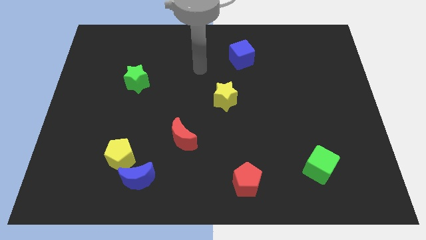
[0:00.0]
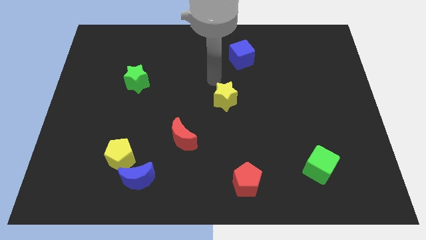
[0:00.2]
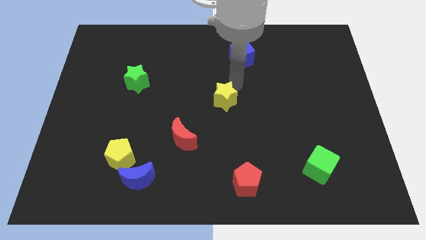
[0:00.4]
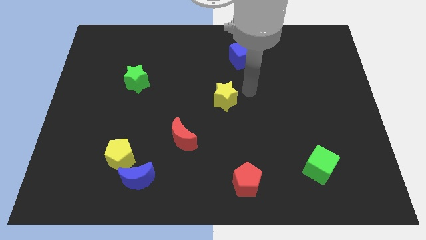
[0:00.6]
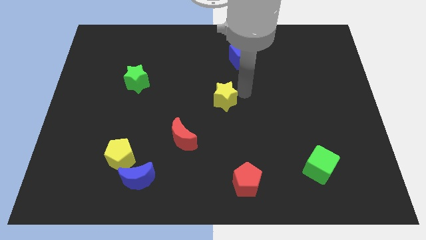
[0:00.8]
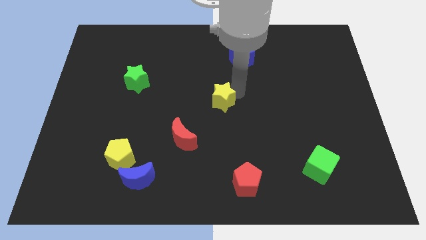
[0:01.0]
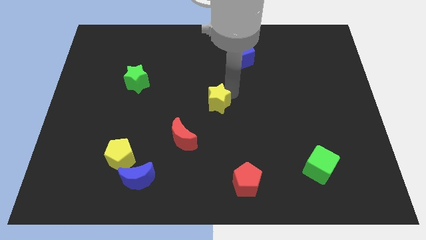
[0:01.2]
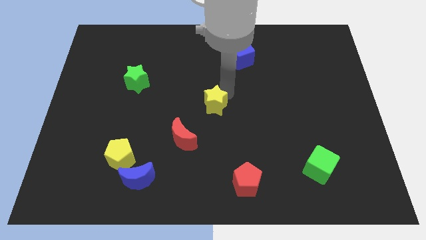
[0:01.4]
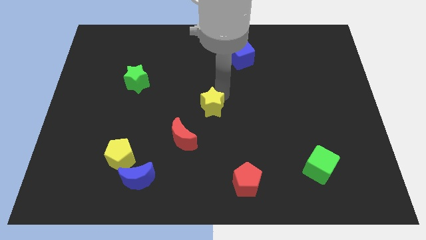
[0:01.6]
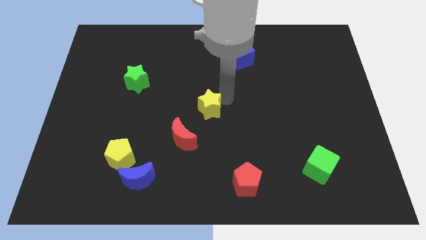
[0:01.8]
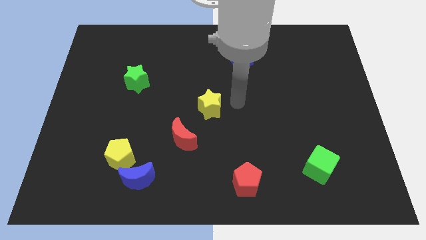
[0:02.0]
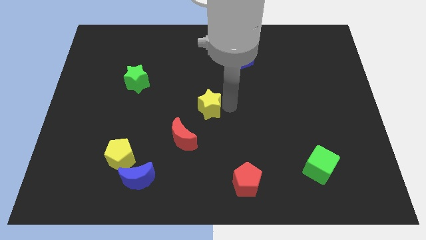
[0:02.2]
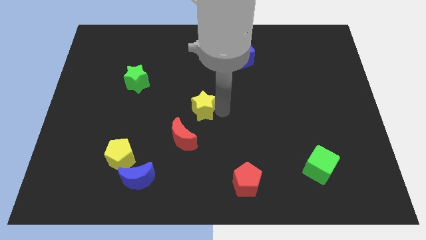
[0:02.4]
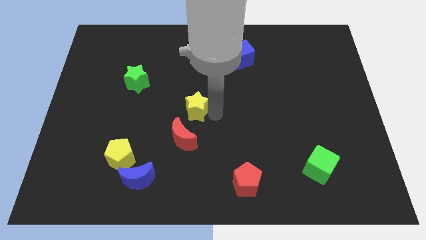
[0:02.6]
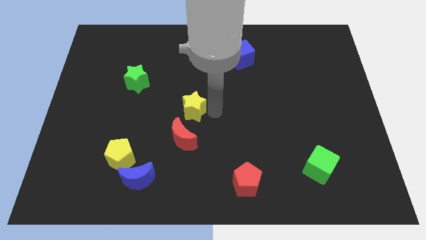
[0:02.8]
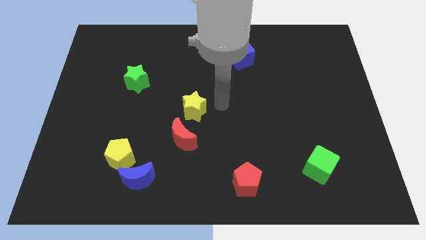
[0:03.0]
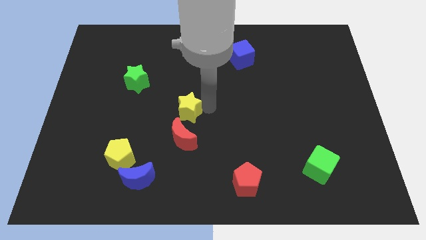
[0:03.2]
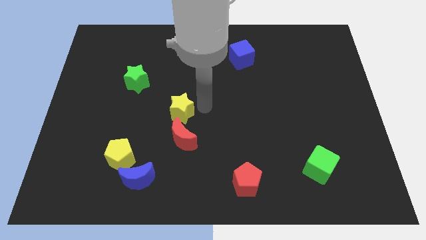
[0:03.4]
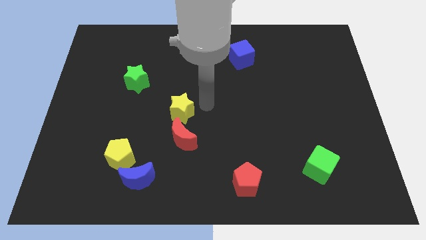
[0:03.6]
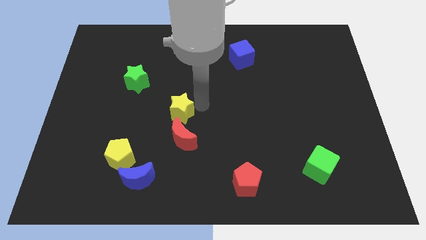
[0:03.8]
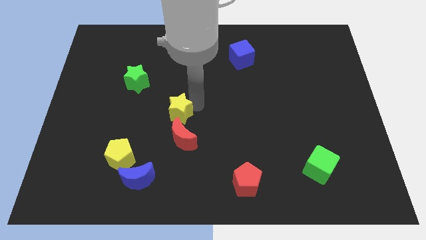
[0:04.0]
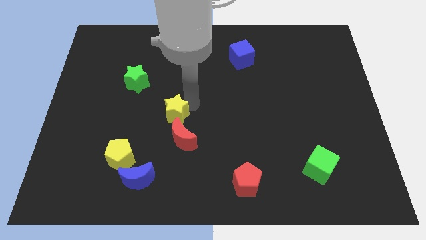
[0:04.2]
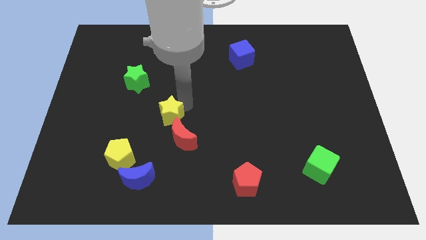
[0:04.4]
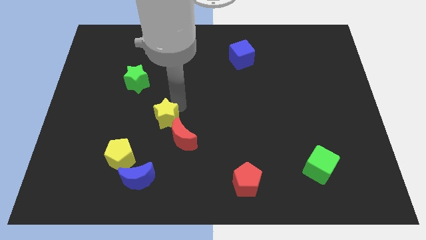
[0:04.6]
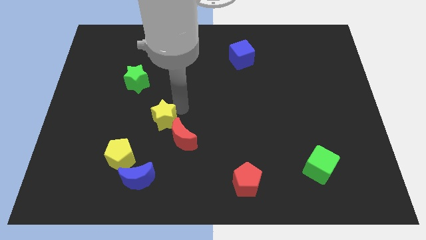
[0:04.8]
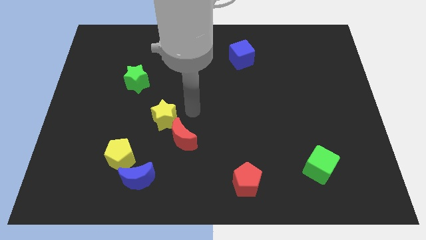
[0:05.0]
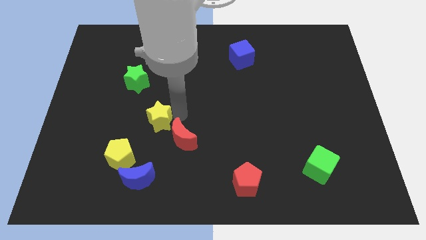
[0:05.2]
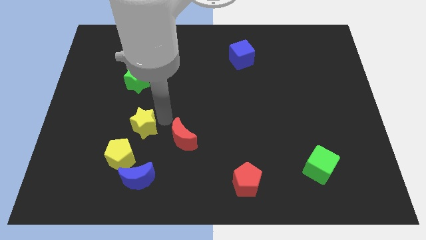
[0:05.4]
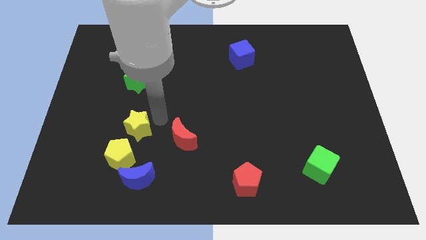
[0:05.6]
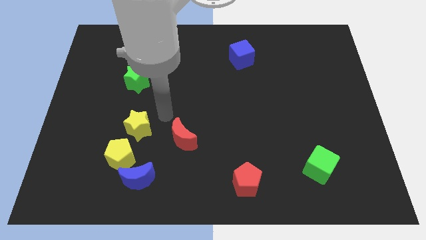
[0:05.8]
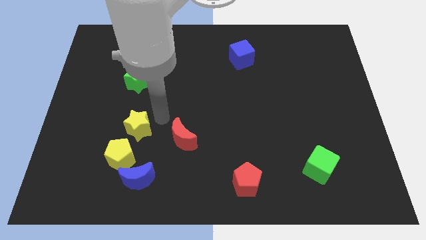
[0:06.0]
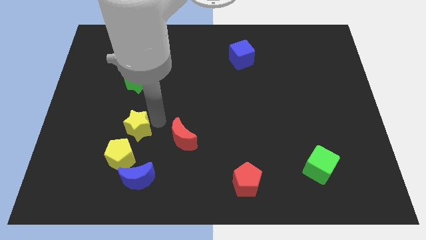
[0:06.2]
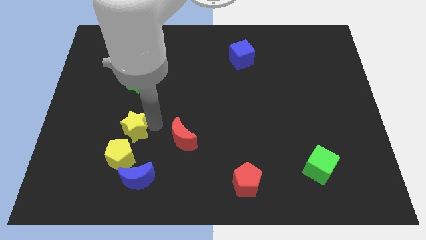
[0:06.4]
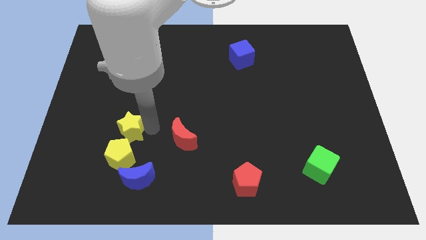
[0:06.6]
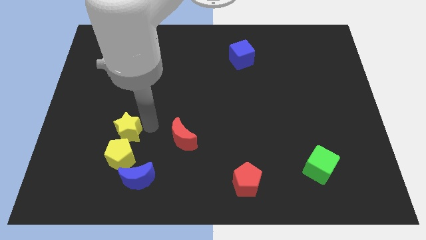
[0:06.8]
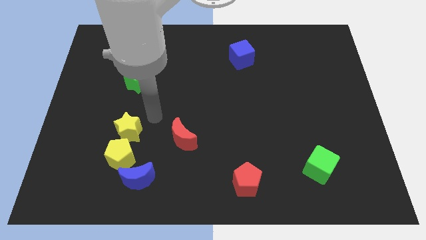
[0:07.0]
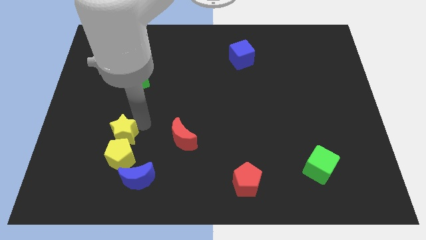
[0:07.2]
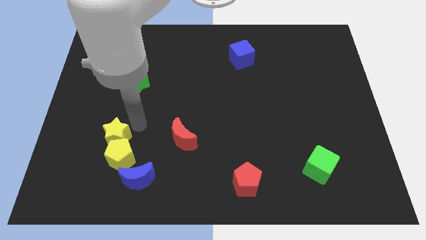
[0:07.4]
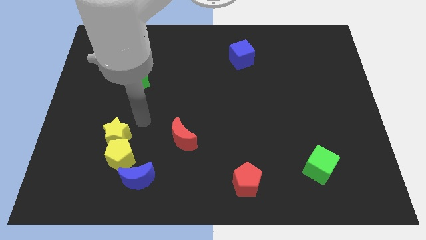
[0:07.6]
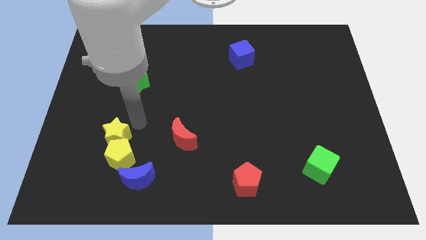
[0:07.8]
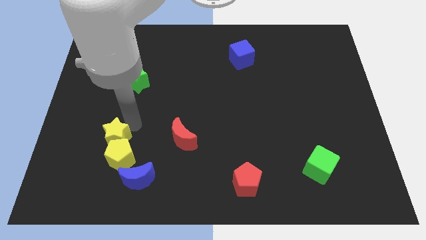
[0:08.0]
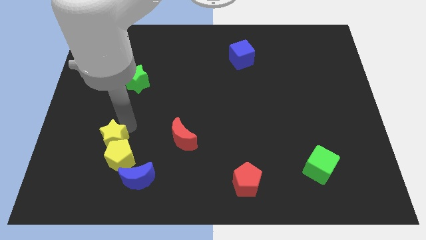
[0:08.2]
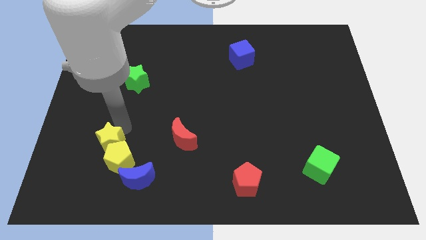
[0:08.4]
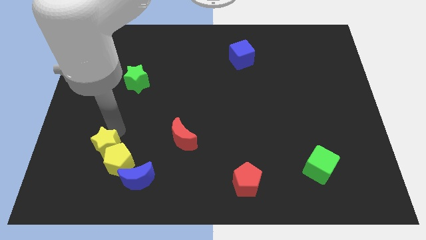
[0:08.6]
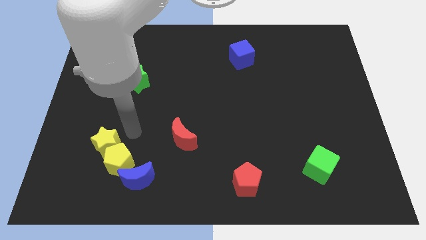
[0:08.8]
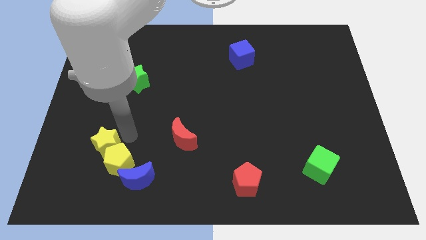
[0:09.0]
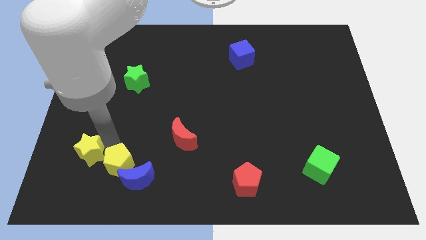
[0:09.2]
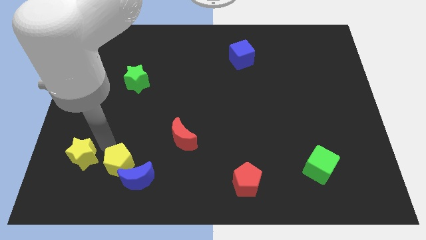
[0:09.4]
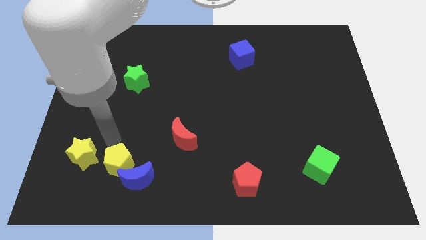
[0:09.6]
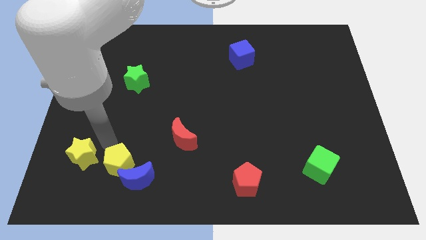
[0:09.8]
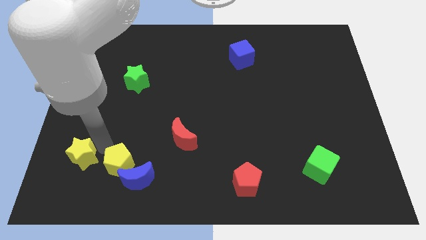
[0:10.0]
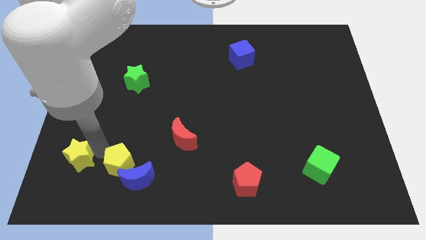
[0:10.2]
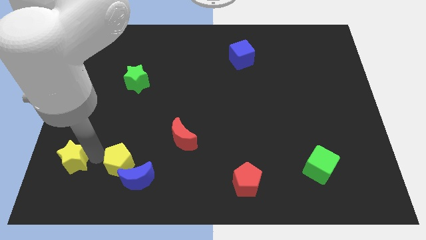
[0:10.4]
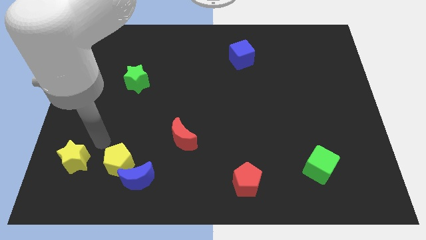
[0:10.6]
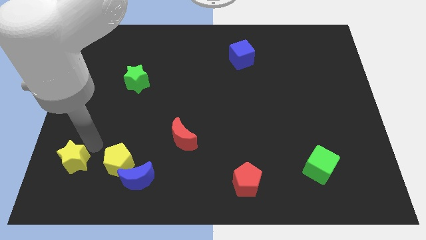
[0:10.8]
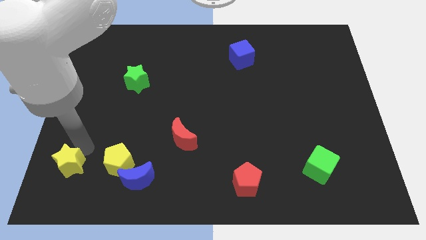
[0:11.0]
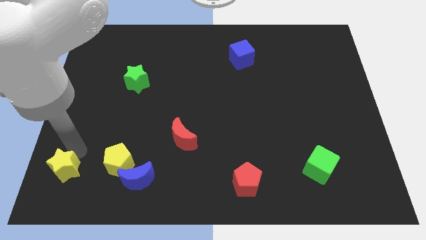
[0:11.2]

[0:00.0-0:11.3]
slide the yellow star to the bottom left
